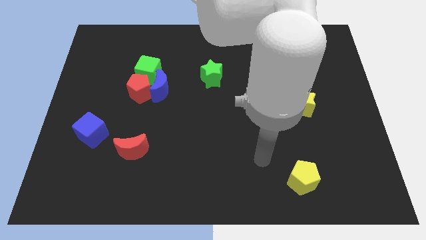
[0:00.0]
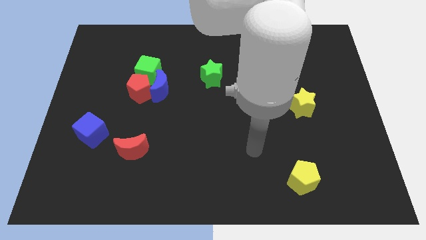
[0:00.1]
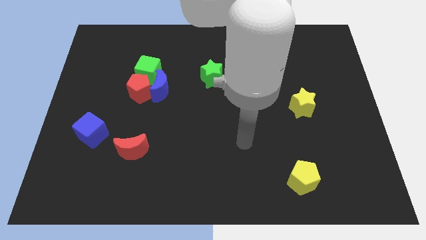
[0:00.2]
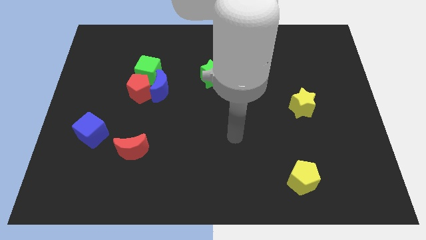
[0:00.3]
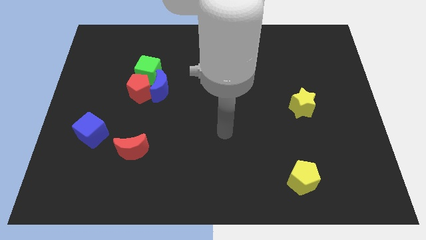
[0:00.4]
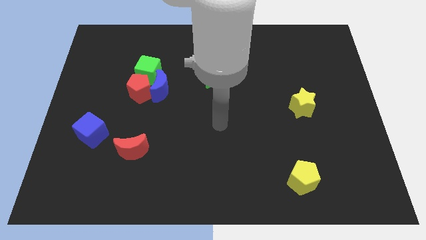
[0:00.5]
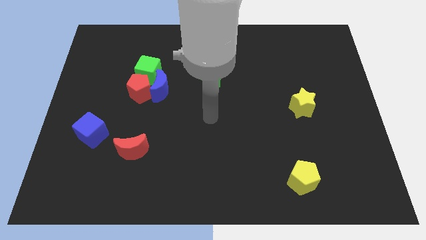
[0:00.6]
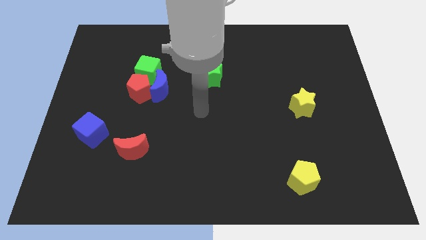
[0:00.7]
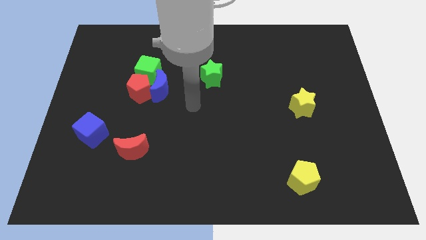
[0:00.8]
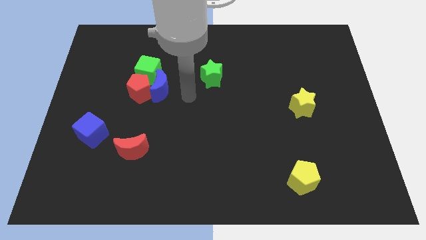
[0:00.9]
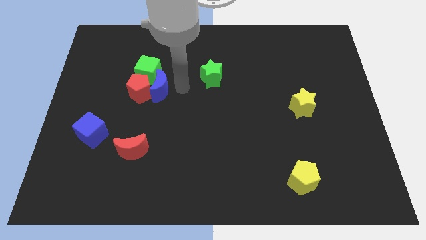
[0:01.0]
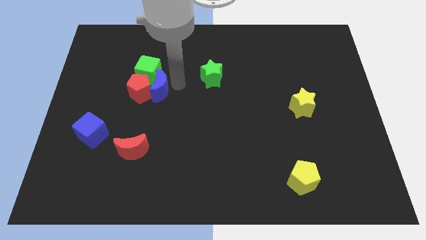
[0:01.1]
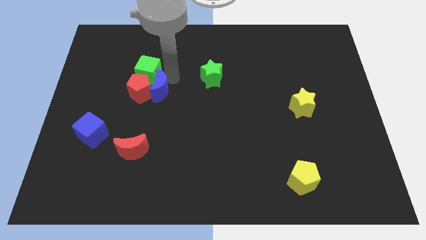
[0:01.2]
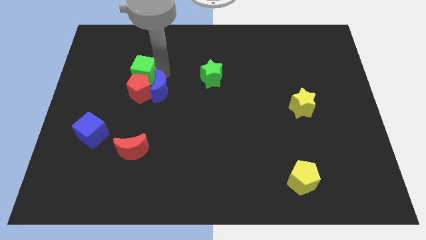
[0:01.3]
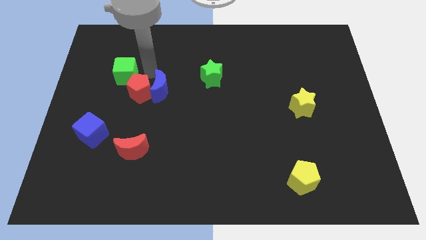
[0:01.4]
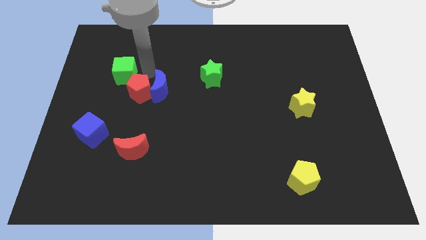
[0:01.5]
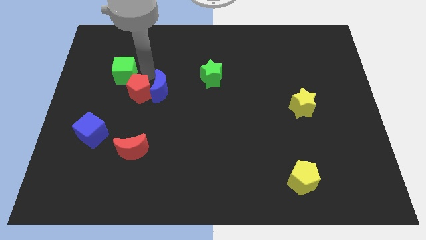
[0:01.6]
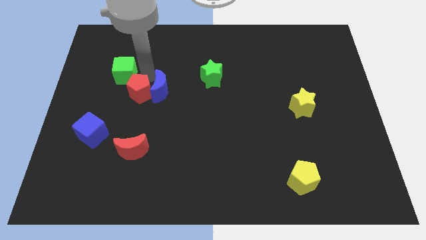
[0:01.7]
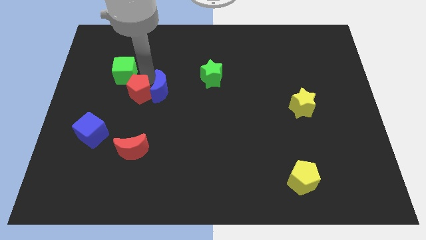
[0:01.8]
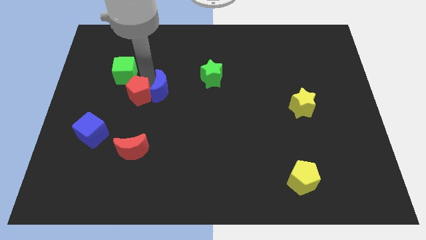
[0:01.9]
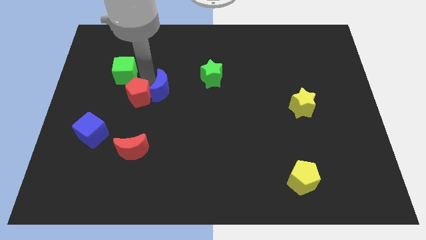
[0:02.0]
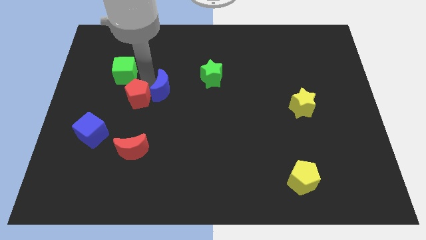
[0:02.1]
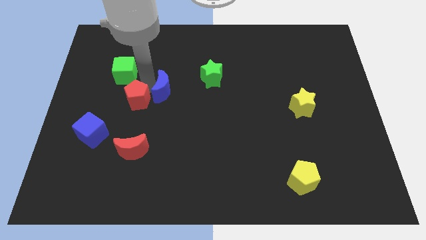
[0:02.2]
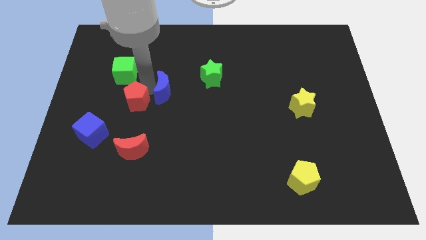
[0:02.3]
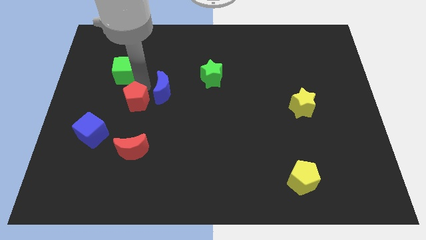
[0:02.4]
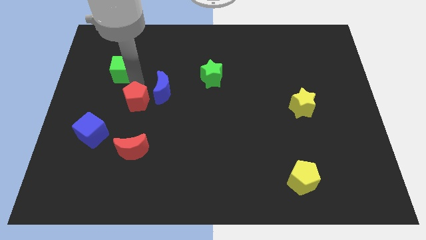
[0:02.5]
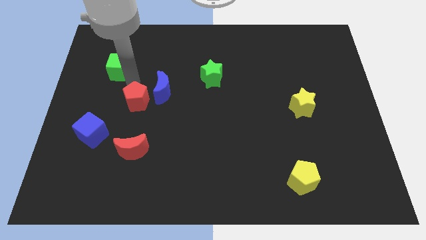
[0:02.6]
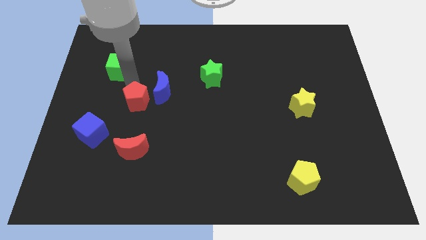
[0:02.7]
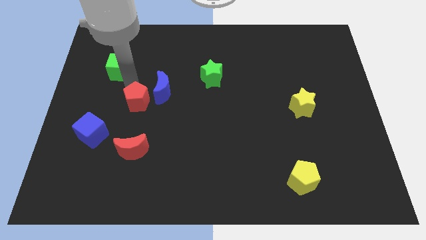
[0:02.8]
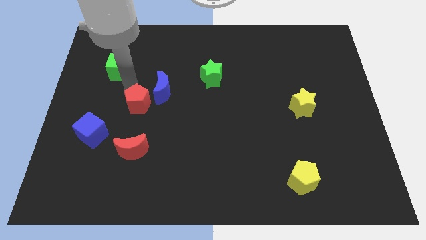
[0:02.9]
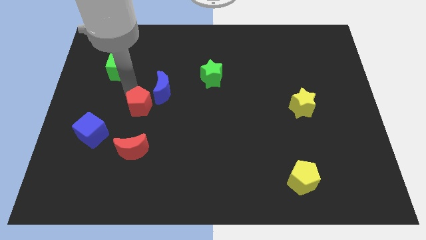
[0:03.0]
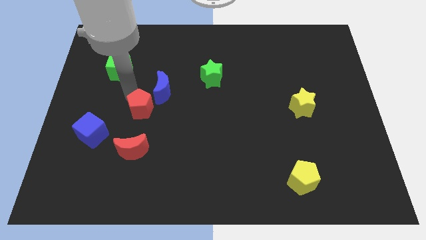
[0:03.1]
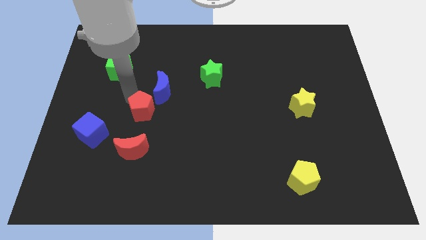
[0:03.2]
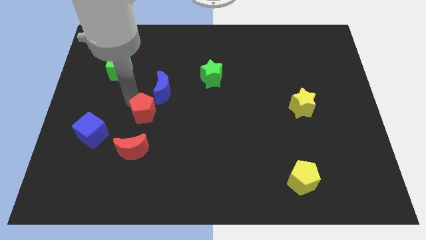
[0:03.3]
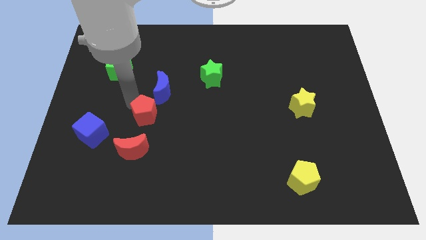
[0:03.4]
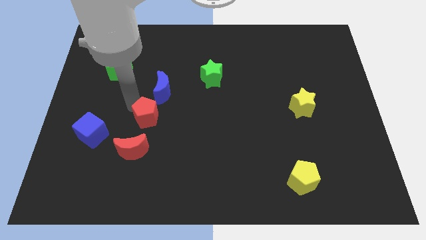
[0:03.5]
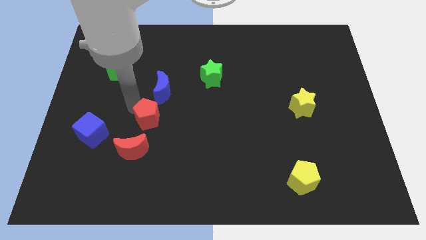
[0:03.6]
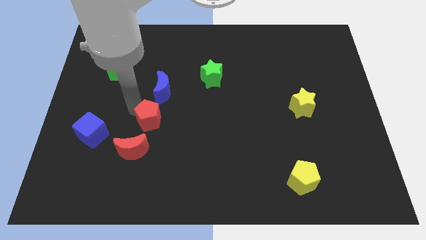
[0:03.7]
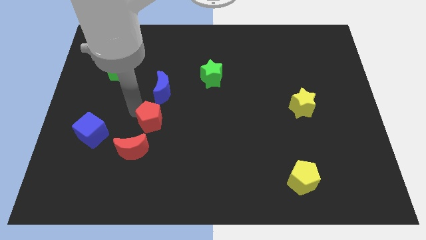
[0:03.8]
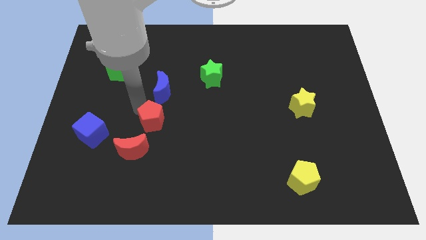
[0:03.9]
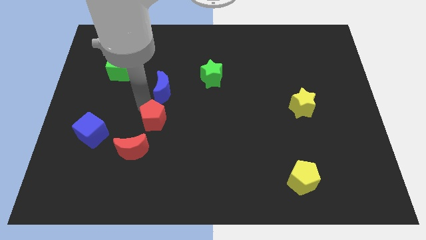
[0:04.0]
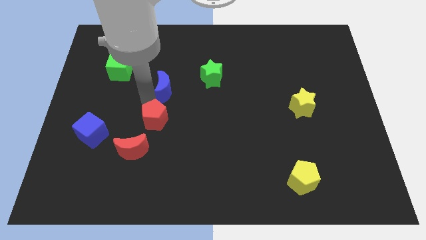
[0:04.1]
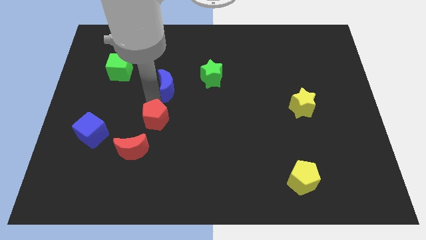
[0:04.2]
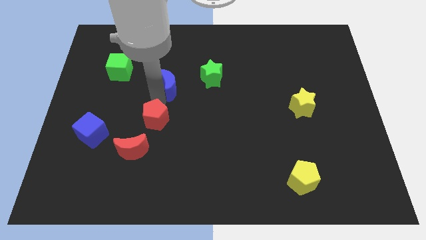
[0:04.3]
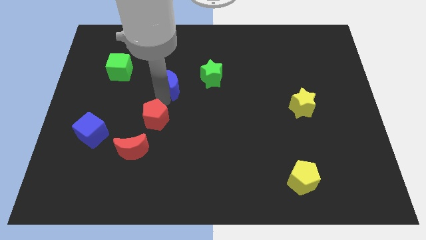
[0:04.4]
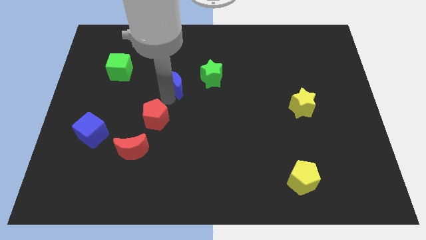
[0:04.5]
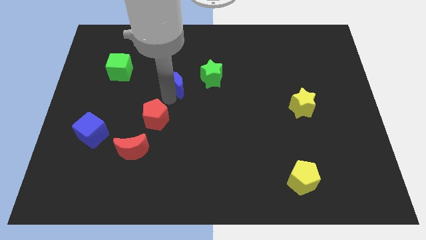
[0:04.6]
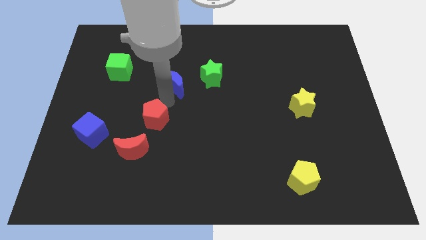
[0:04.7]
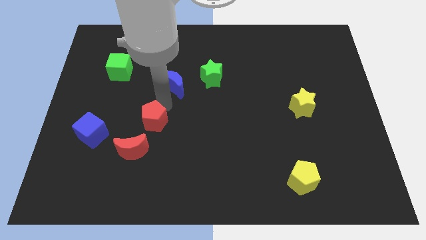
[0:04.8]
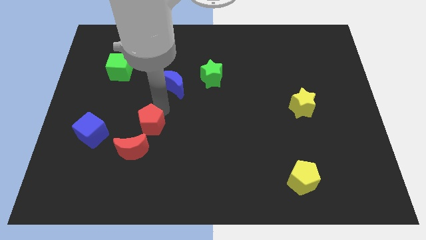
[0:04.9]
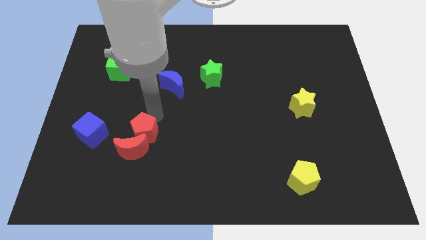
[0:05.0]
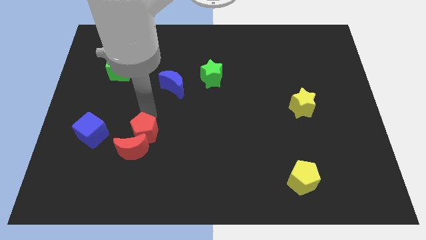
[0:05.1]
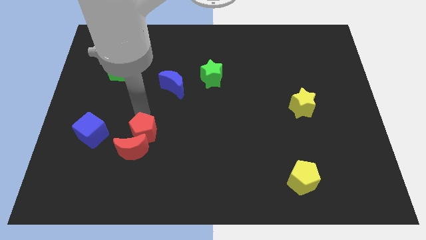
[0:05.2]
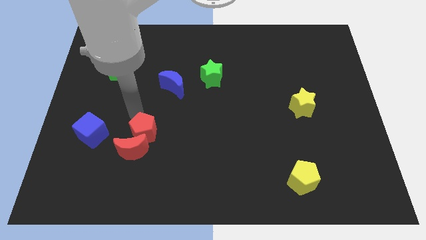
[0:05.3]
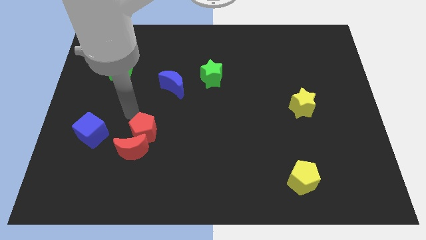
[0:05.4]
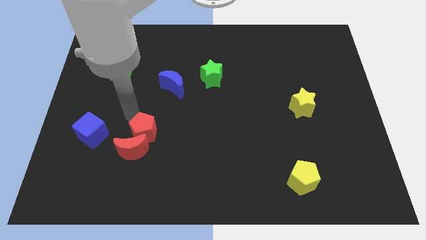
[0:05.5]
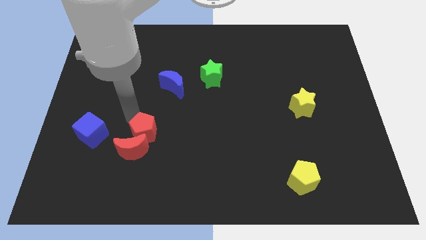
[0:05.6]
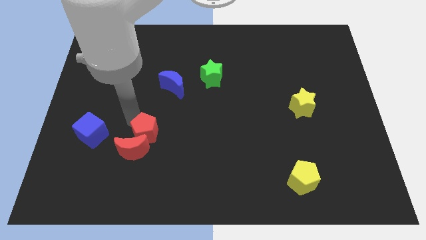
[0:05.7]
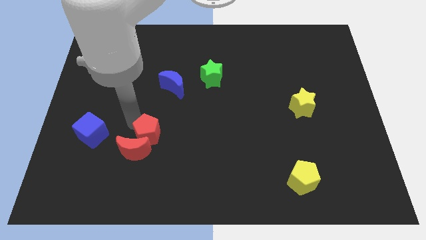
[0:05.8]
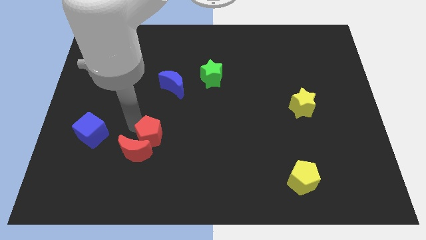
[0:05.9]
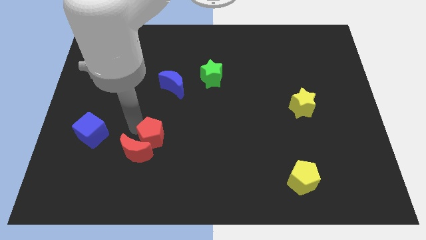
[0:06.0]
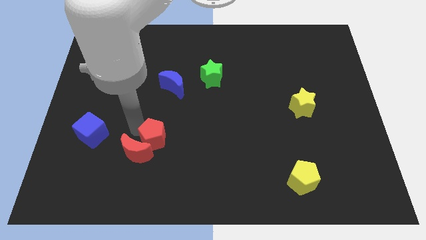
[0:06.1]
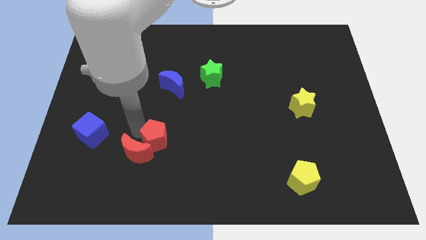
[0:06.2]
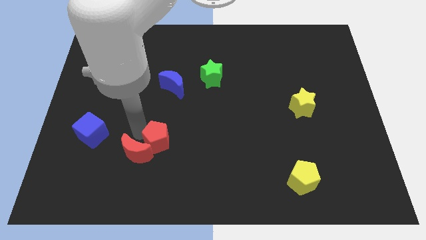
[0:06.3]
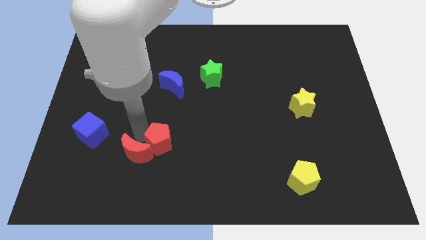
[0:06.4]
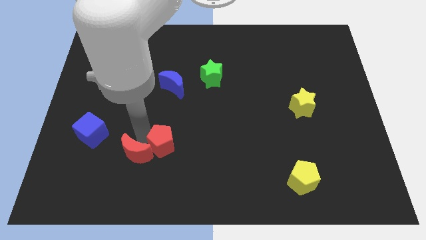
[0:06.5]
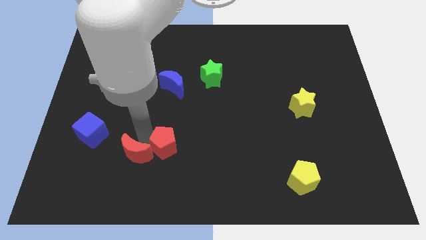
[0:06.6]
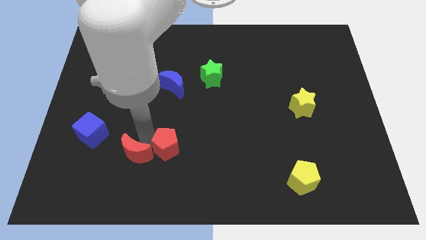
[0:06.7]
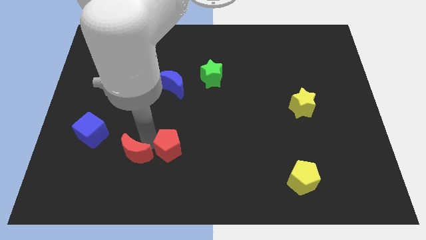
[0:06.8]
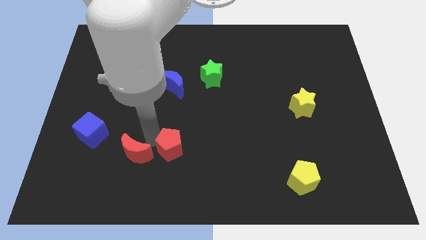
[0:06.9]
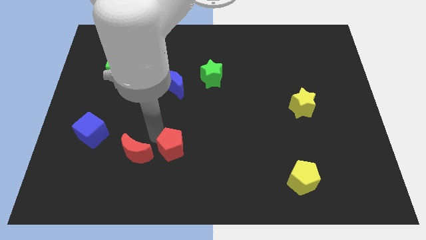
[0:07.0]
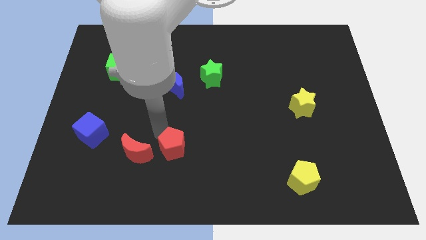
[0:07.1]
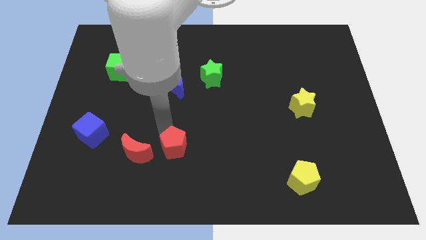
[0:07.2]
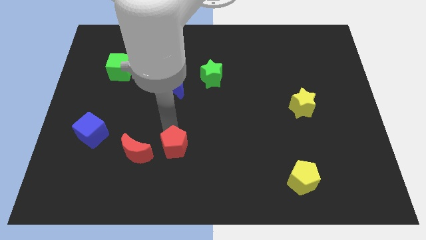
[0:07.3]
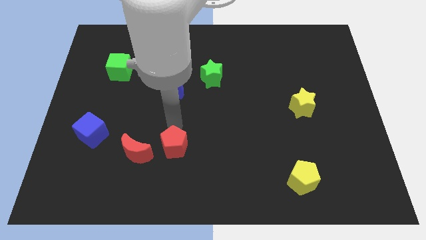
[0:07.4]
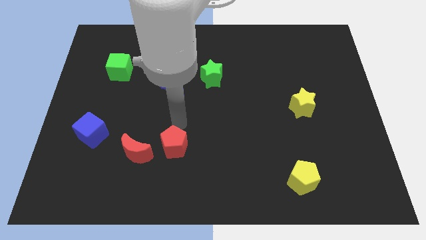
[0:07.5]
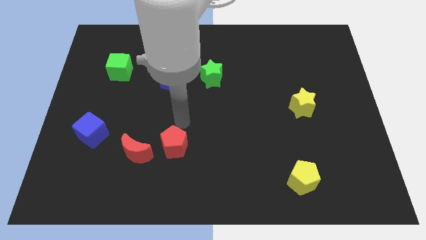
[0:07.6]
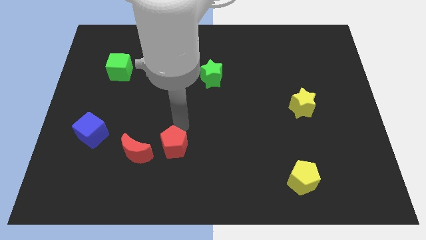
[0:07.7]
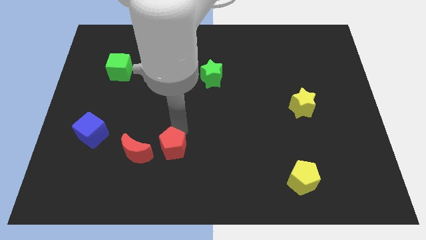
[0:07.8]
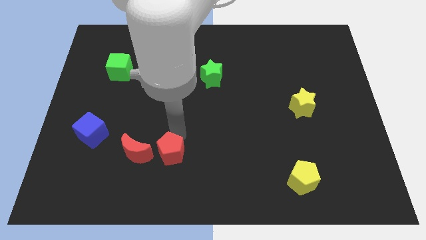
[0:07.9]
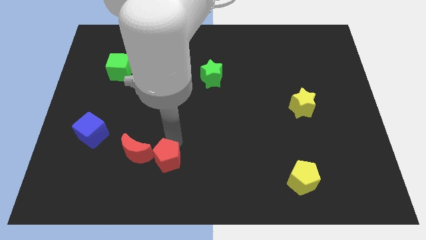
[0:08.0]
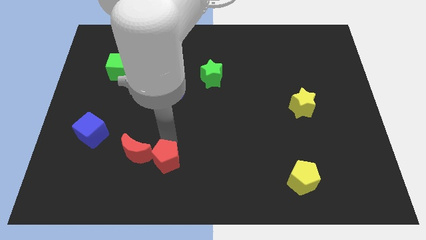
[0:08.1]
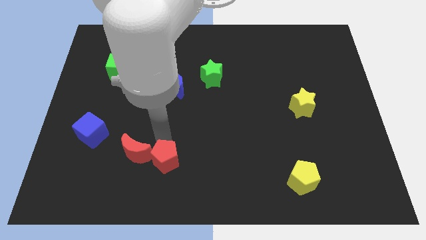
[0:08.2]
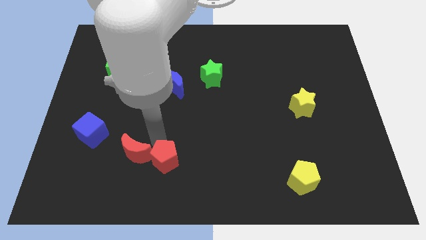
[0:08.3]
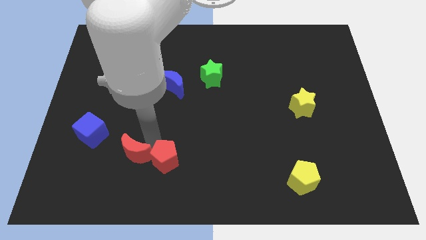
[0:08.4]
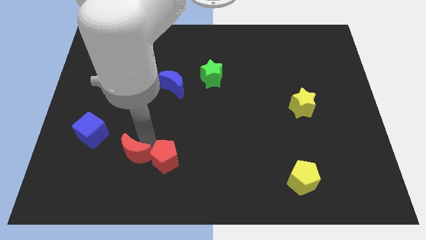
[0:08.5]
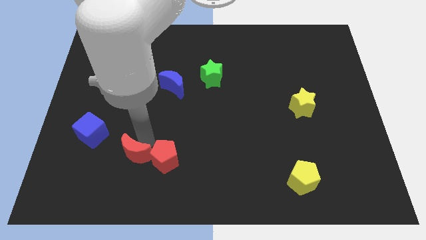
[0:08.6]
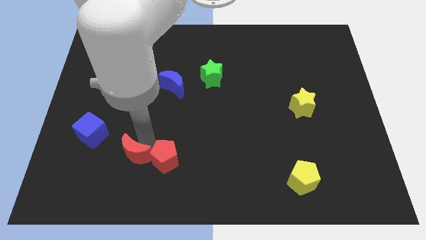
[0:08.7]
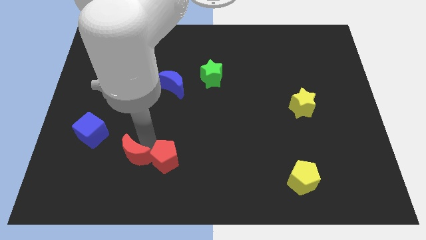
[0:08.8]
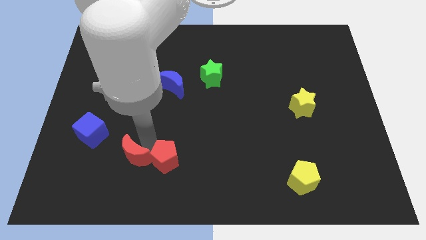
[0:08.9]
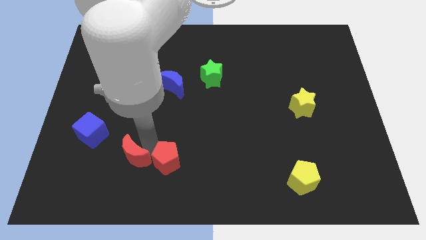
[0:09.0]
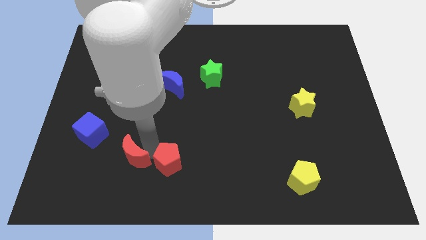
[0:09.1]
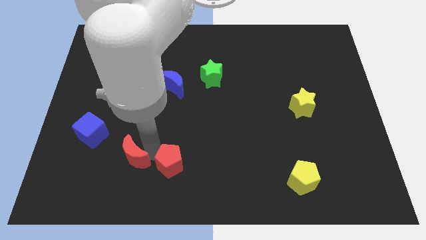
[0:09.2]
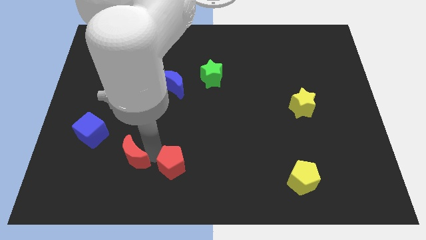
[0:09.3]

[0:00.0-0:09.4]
put the red pentagon to the bottom
